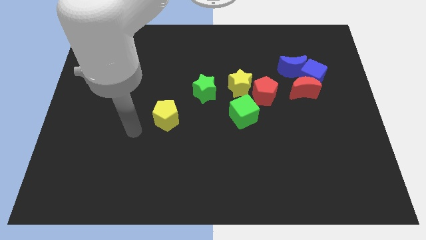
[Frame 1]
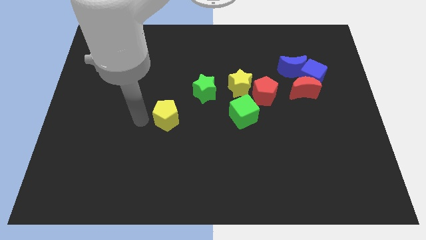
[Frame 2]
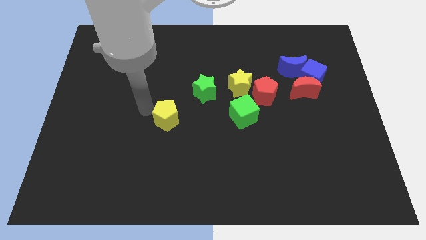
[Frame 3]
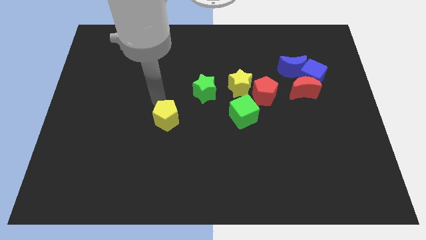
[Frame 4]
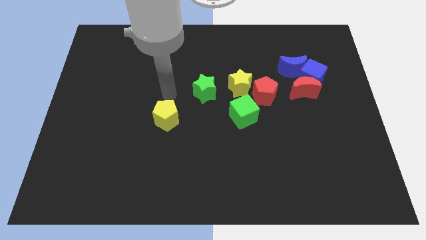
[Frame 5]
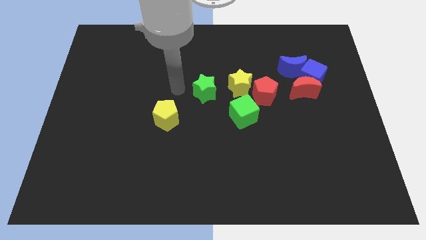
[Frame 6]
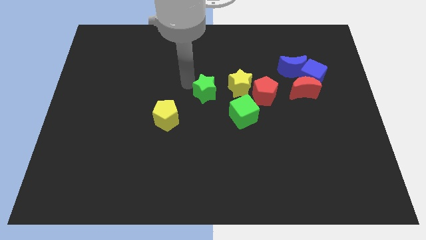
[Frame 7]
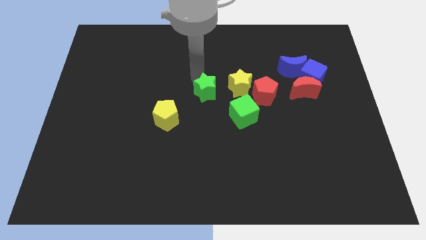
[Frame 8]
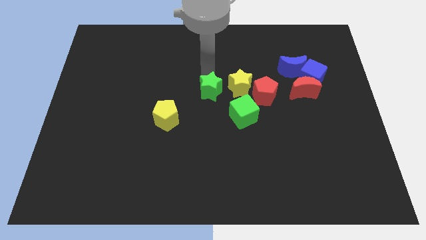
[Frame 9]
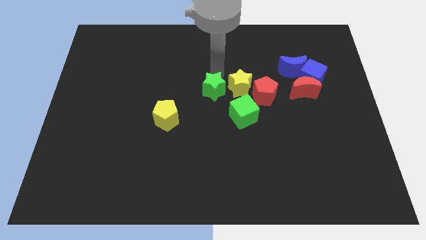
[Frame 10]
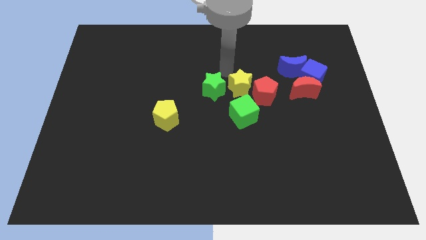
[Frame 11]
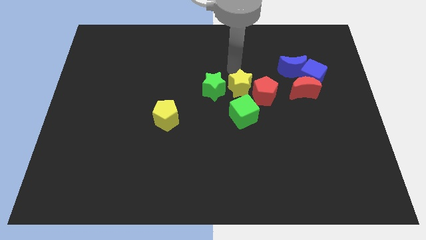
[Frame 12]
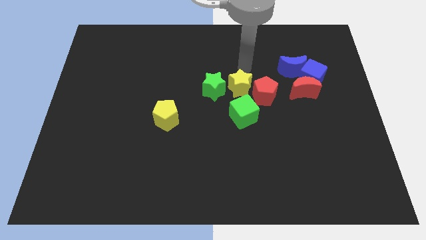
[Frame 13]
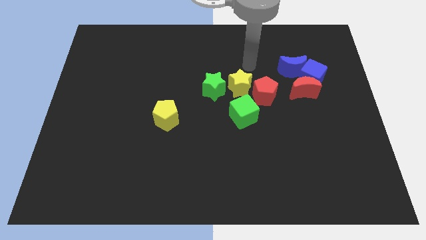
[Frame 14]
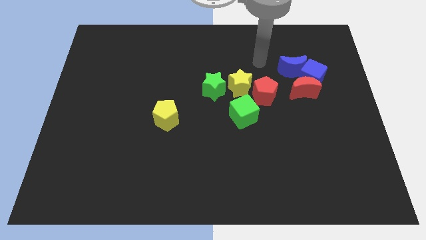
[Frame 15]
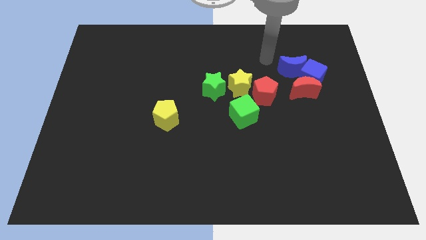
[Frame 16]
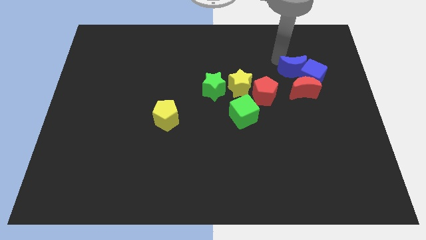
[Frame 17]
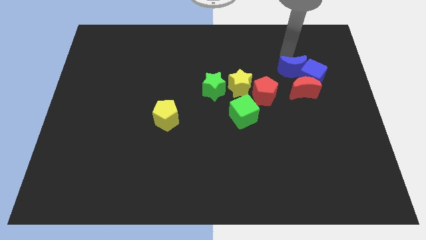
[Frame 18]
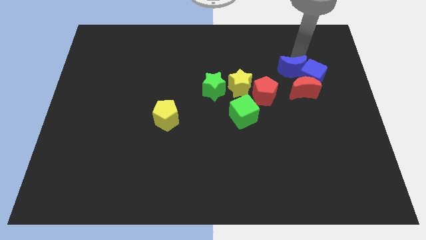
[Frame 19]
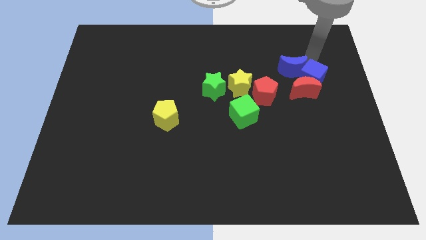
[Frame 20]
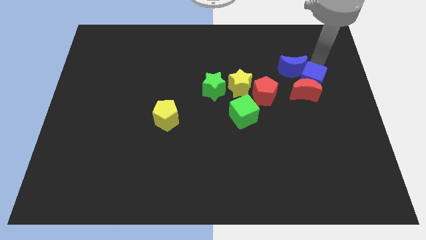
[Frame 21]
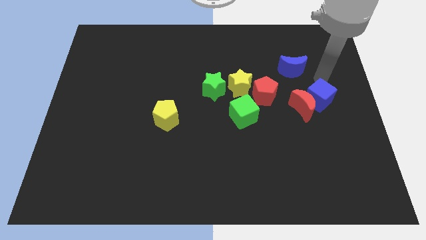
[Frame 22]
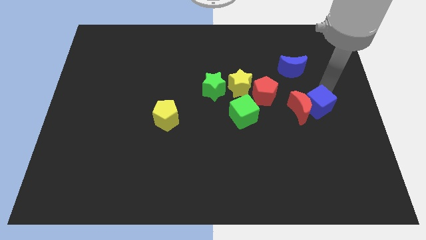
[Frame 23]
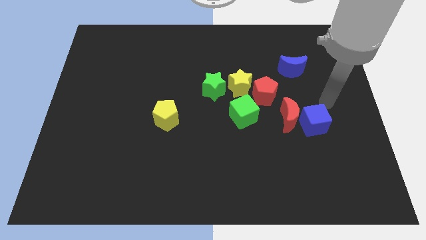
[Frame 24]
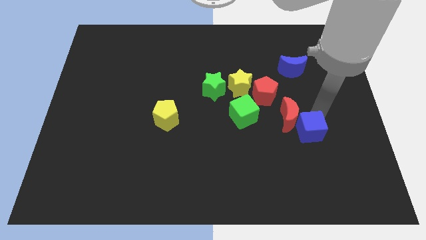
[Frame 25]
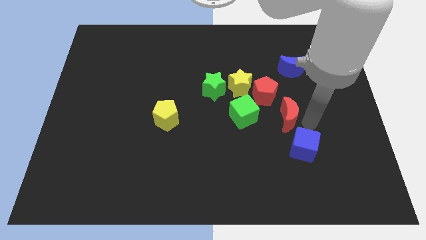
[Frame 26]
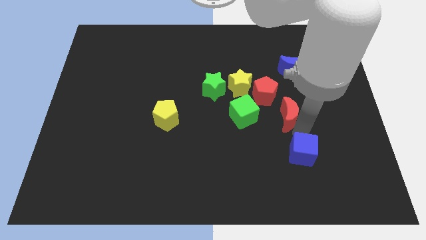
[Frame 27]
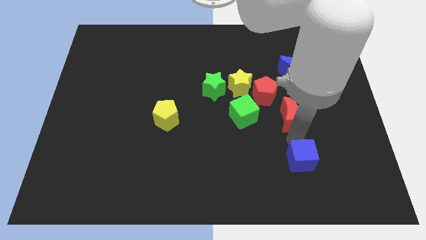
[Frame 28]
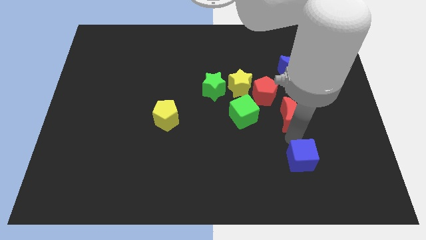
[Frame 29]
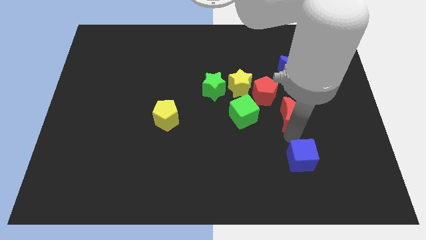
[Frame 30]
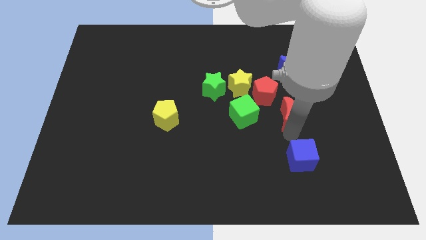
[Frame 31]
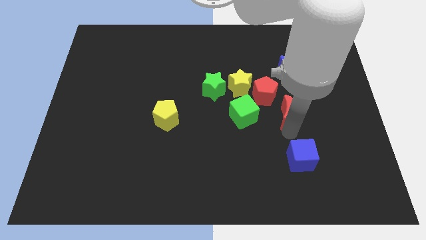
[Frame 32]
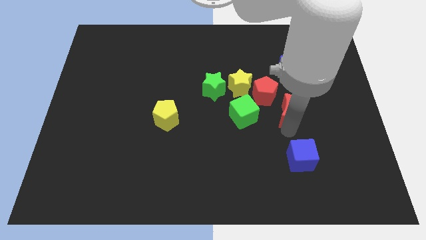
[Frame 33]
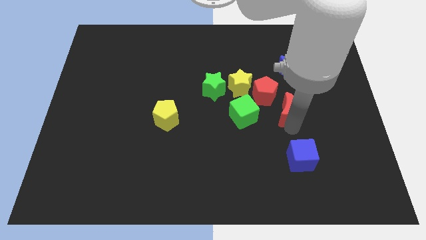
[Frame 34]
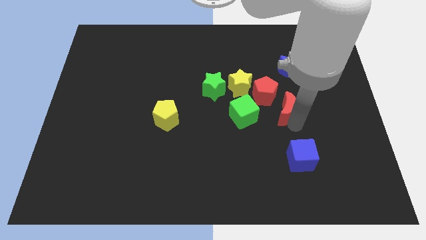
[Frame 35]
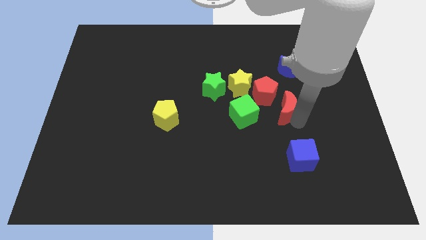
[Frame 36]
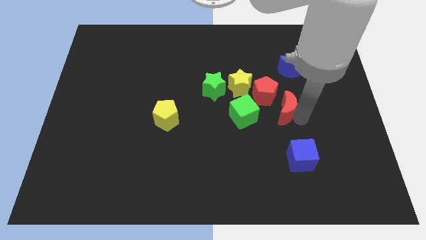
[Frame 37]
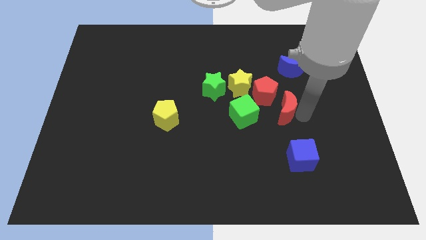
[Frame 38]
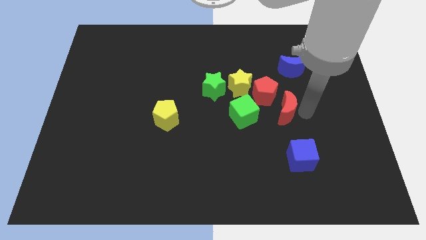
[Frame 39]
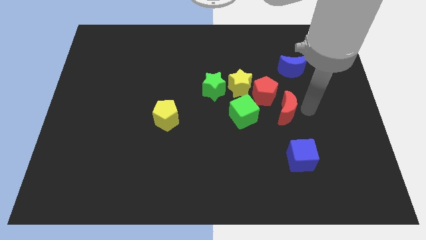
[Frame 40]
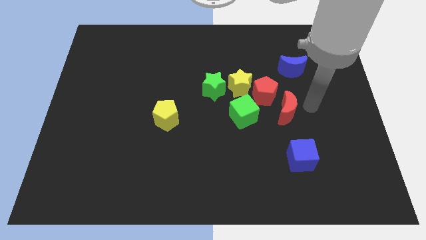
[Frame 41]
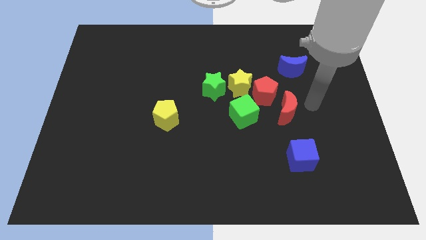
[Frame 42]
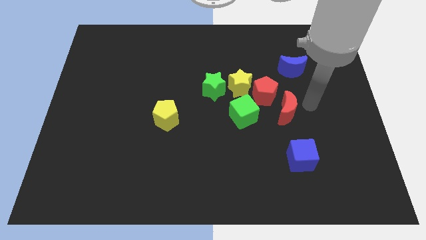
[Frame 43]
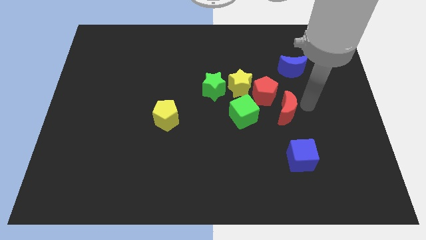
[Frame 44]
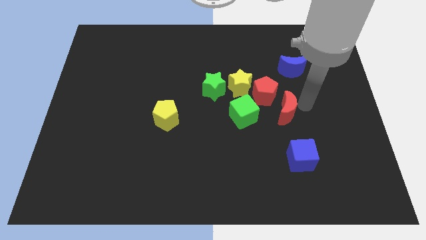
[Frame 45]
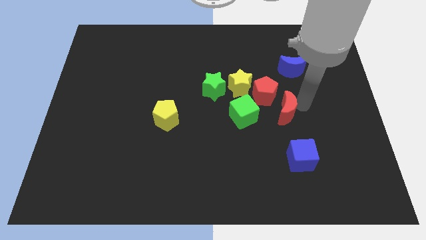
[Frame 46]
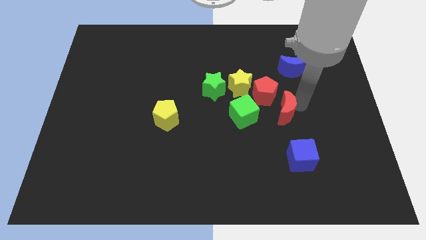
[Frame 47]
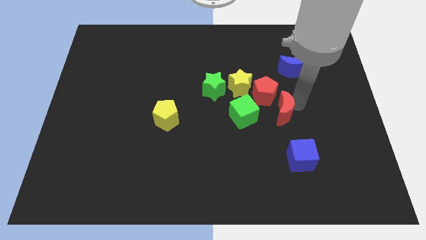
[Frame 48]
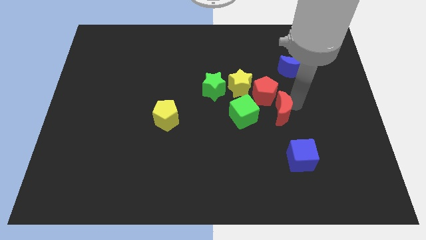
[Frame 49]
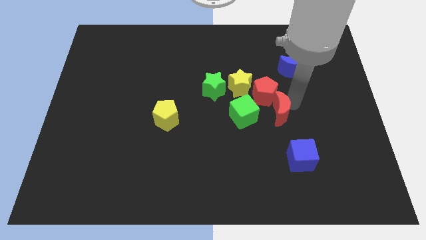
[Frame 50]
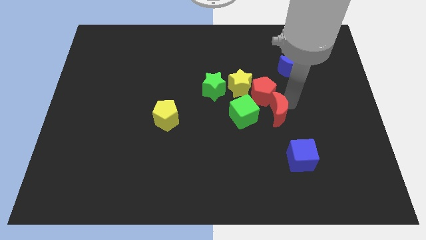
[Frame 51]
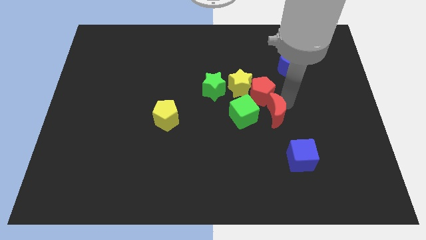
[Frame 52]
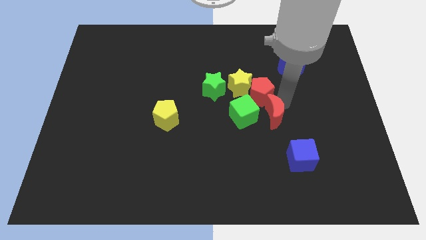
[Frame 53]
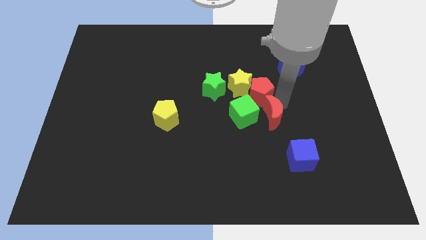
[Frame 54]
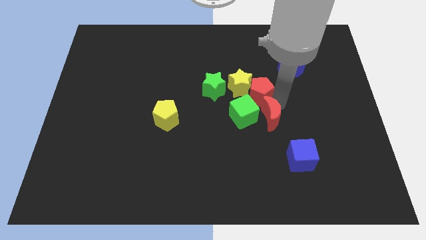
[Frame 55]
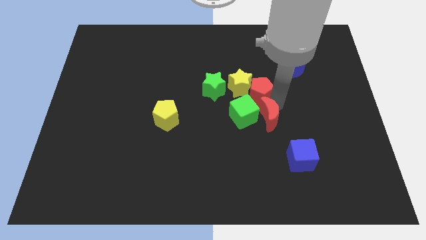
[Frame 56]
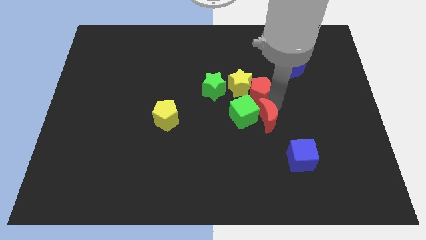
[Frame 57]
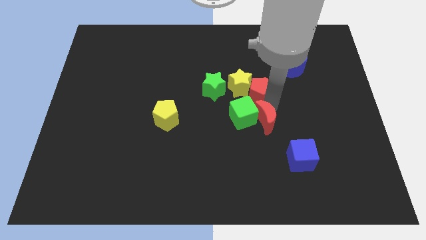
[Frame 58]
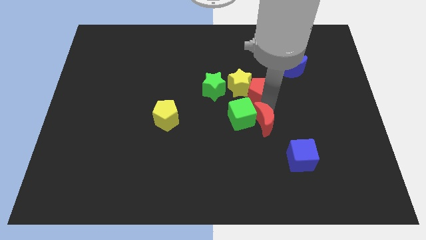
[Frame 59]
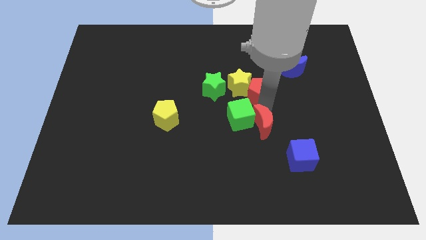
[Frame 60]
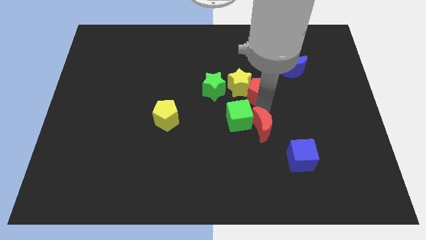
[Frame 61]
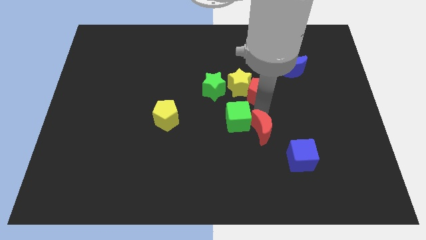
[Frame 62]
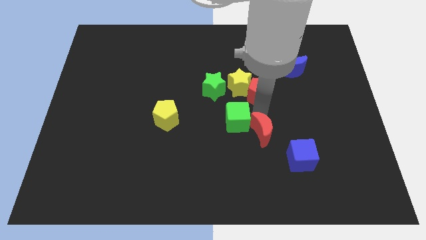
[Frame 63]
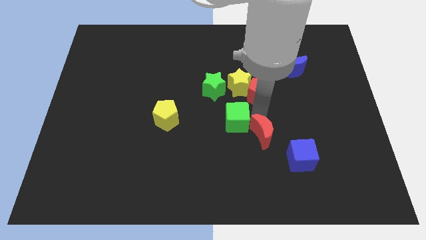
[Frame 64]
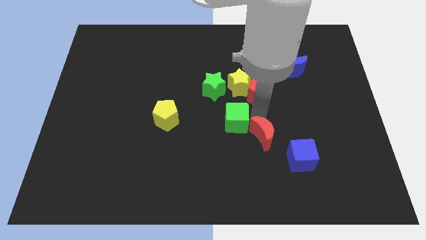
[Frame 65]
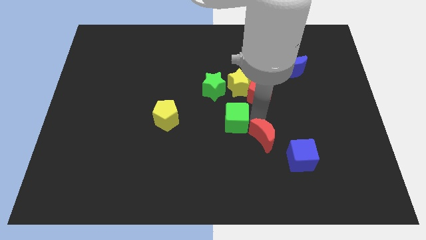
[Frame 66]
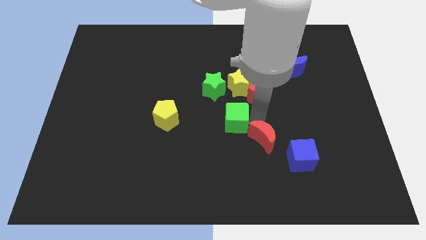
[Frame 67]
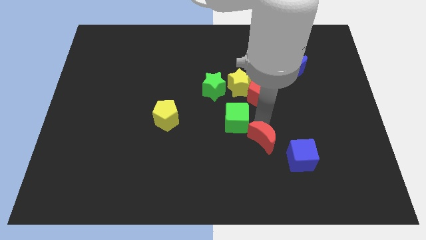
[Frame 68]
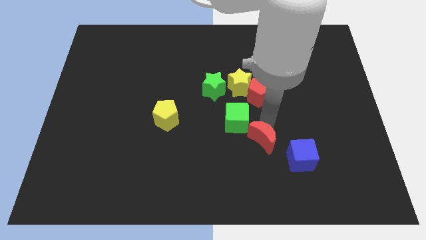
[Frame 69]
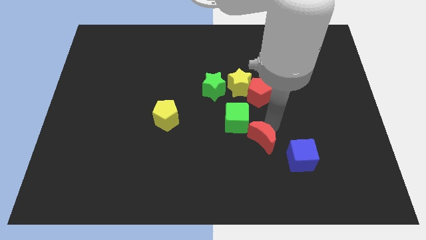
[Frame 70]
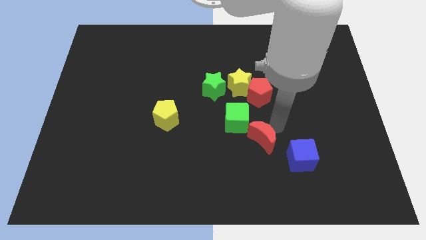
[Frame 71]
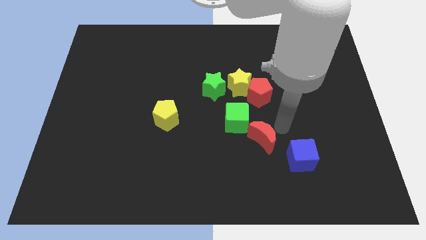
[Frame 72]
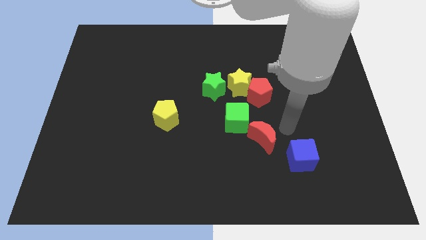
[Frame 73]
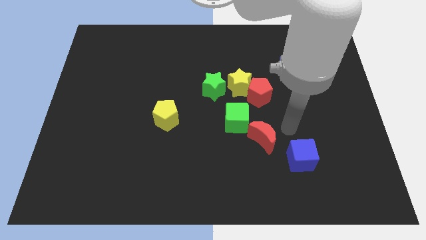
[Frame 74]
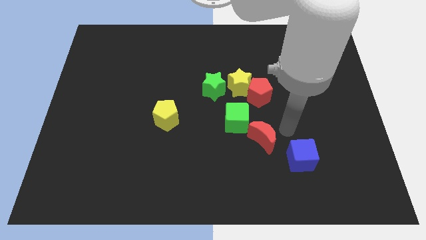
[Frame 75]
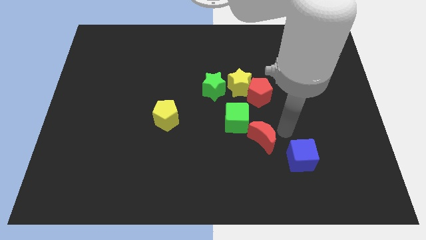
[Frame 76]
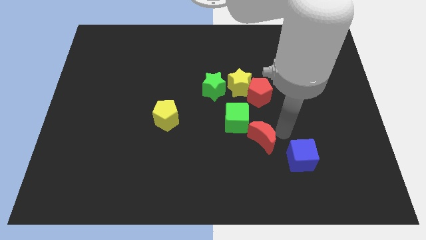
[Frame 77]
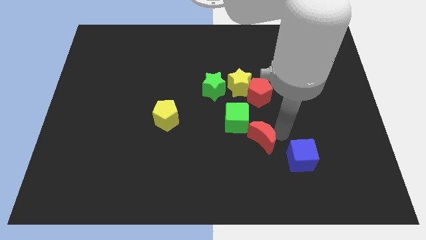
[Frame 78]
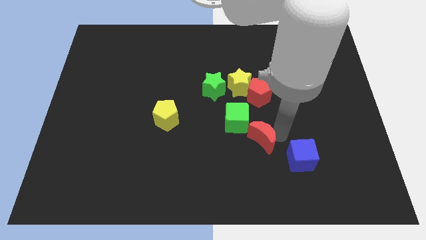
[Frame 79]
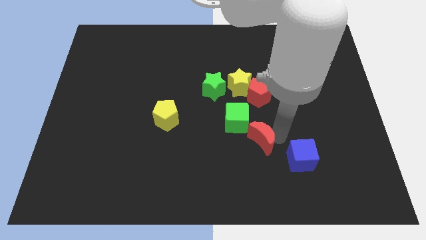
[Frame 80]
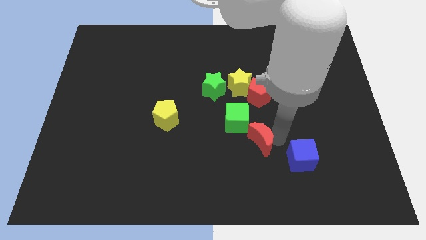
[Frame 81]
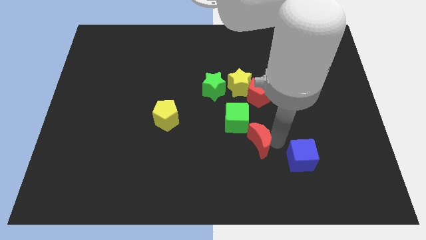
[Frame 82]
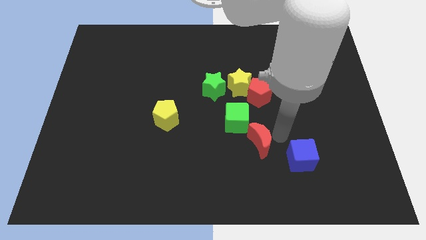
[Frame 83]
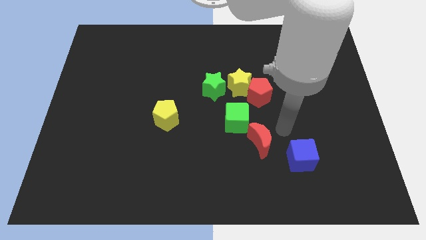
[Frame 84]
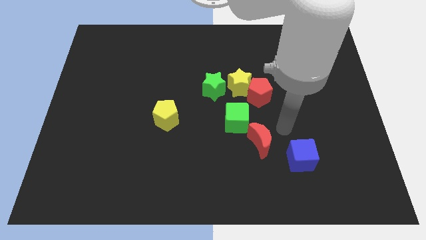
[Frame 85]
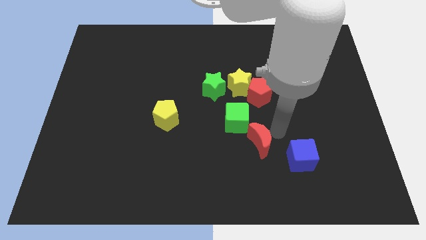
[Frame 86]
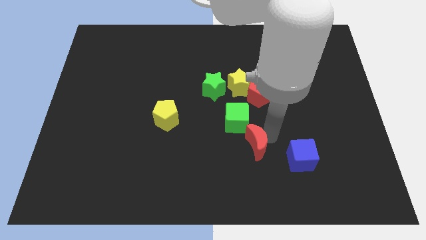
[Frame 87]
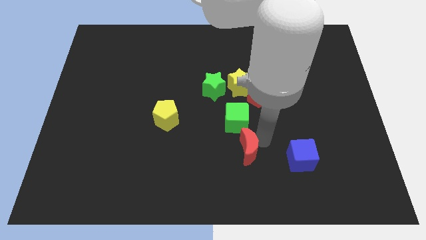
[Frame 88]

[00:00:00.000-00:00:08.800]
slide the red moon diagonally downwards and to the left
